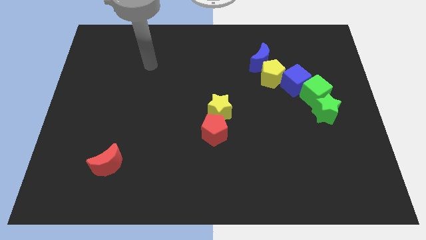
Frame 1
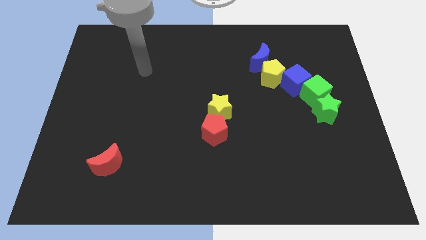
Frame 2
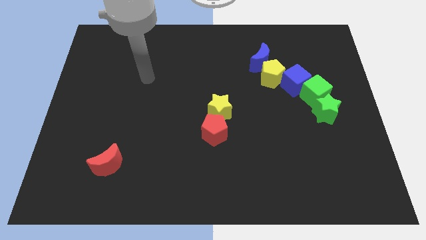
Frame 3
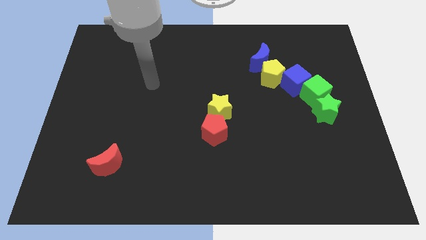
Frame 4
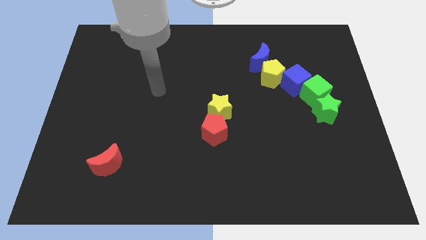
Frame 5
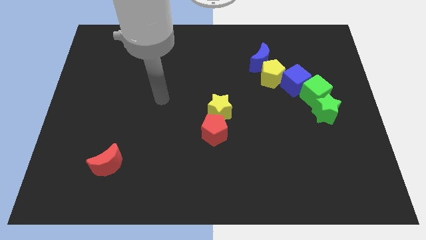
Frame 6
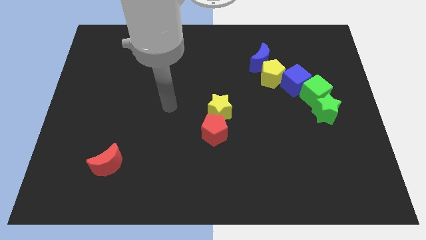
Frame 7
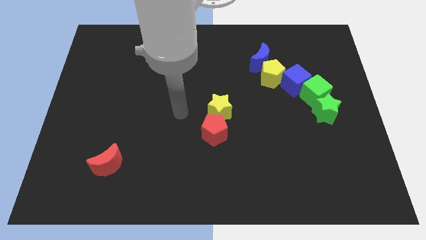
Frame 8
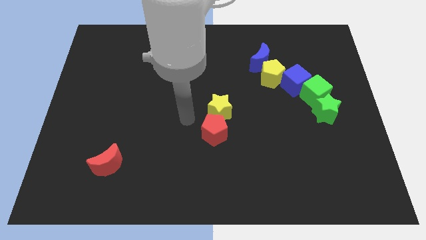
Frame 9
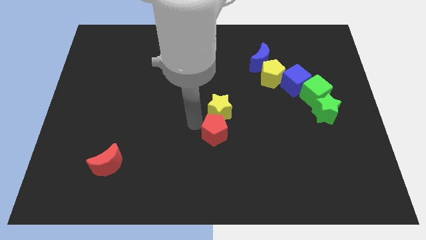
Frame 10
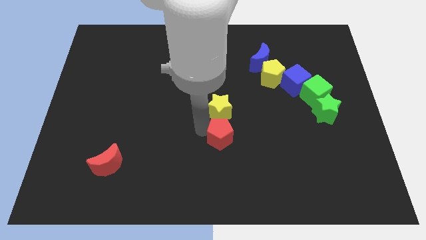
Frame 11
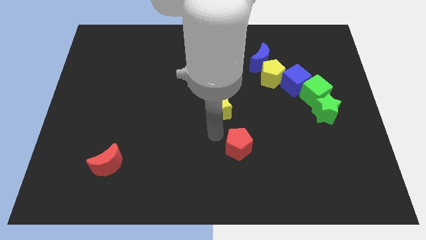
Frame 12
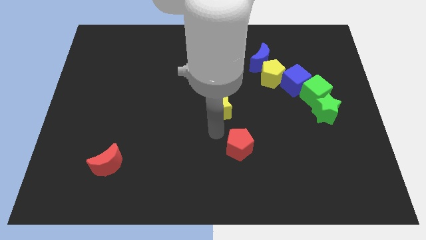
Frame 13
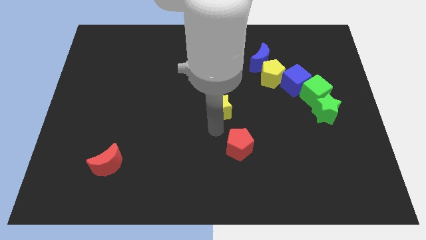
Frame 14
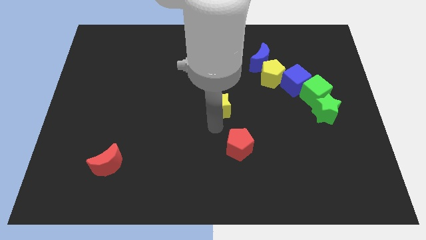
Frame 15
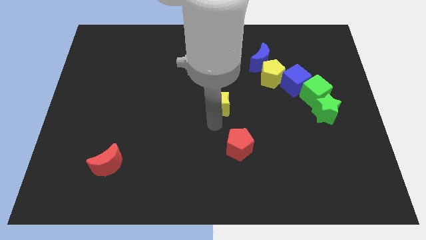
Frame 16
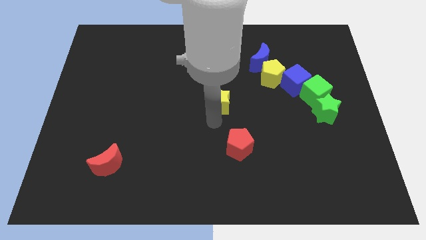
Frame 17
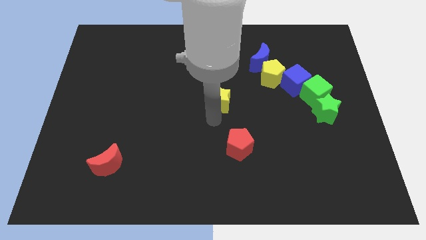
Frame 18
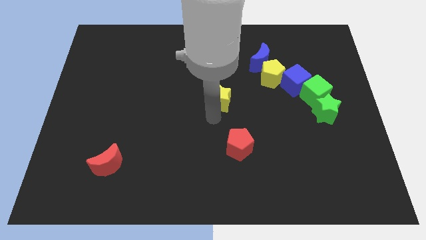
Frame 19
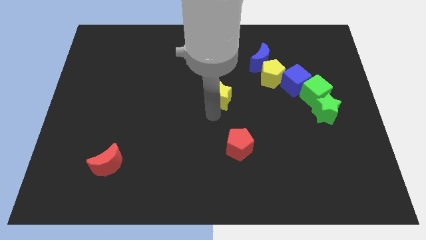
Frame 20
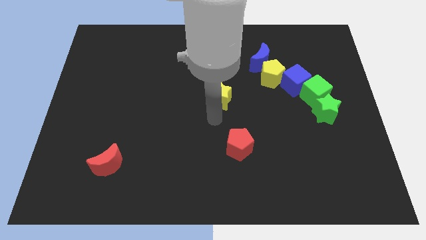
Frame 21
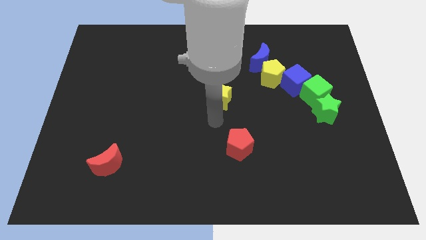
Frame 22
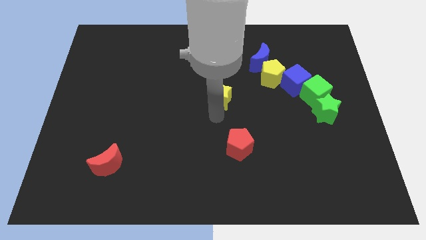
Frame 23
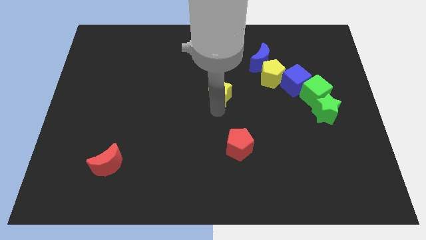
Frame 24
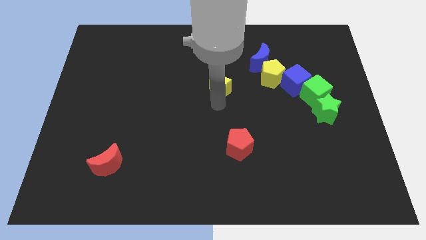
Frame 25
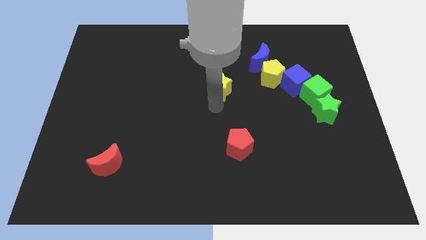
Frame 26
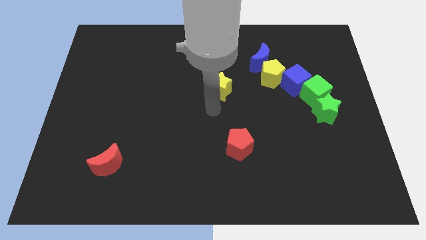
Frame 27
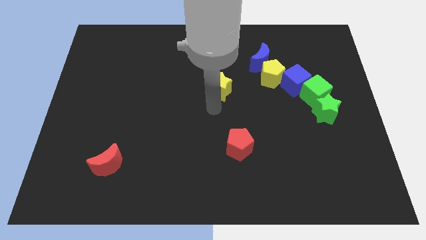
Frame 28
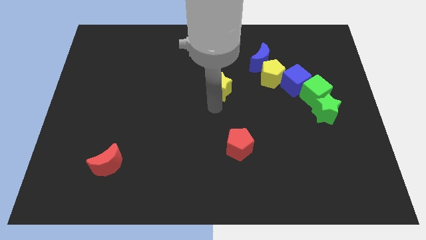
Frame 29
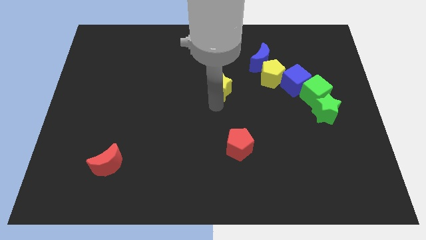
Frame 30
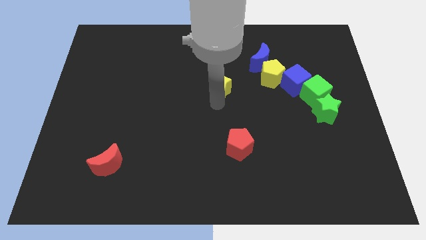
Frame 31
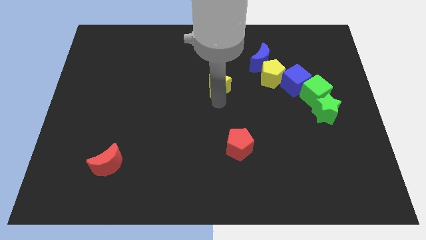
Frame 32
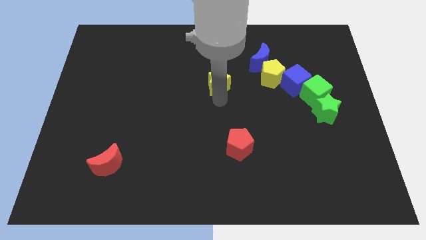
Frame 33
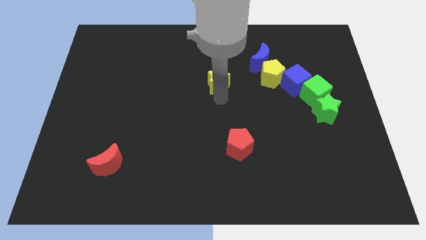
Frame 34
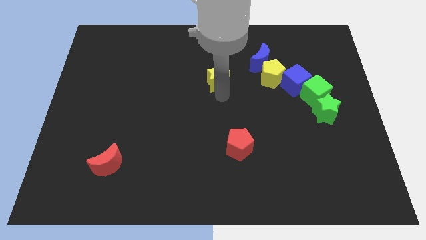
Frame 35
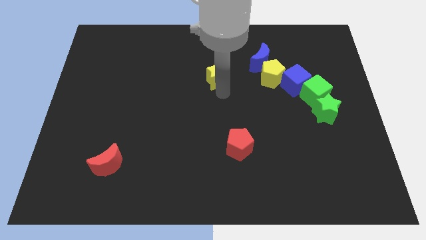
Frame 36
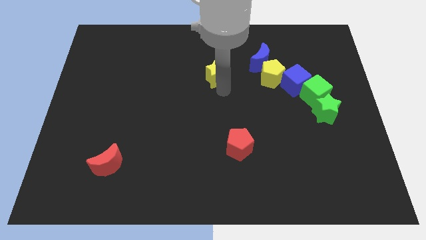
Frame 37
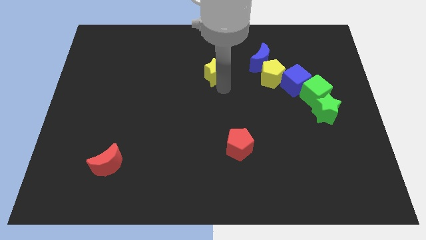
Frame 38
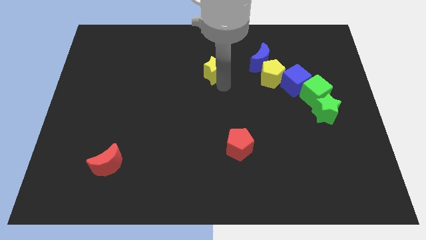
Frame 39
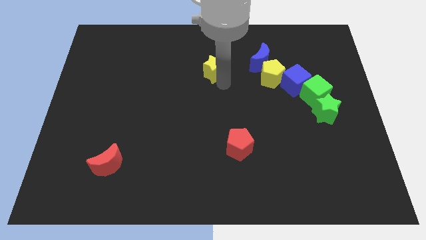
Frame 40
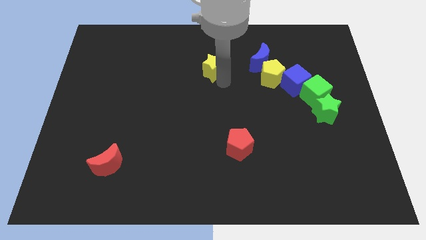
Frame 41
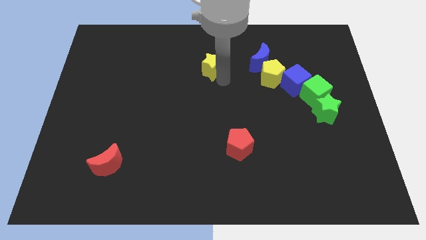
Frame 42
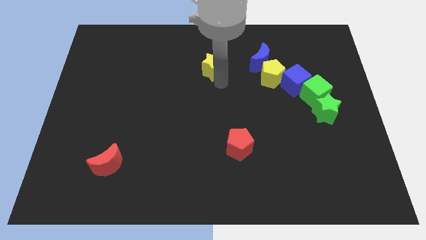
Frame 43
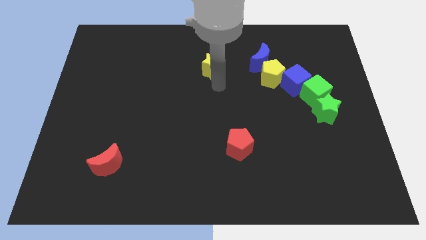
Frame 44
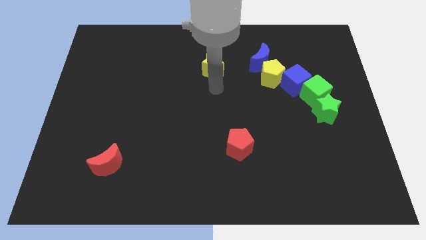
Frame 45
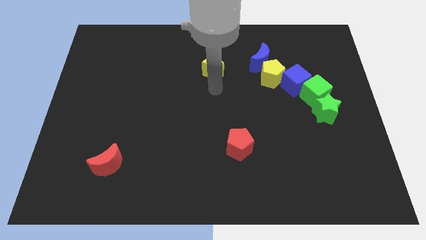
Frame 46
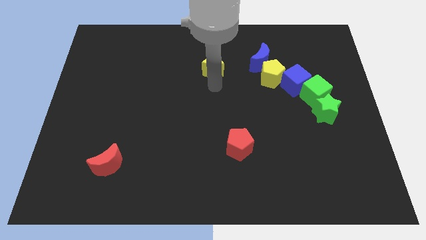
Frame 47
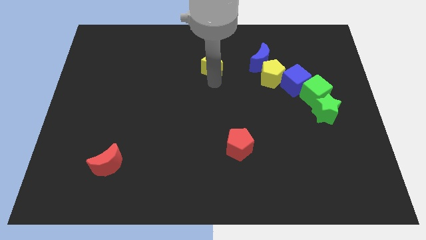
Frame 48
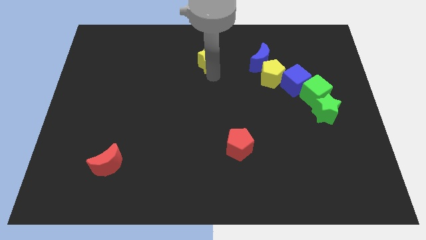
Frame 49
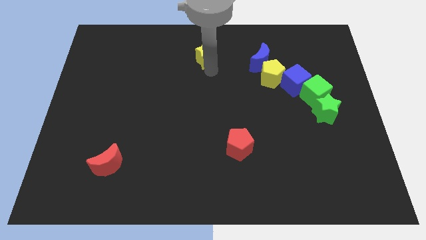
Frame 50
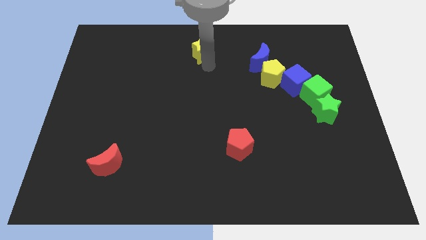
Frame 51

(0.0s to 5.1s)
push the yellow star to the top side

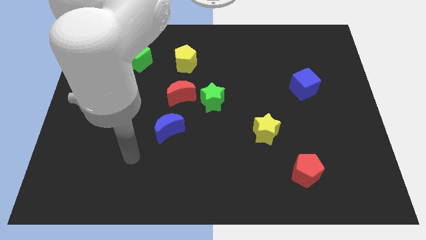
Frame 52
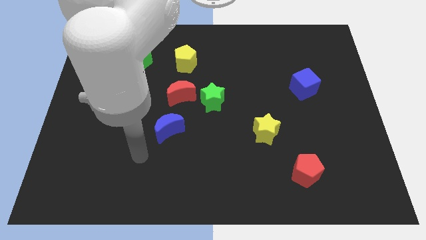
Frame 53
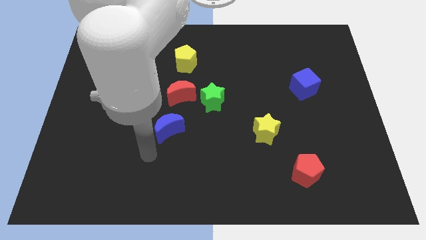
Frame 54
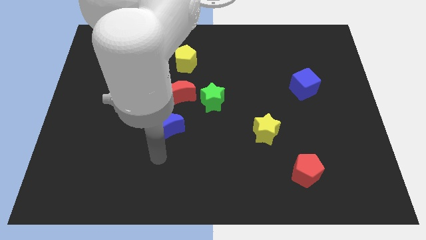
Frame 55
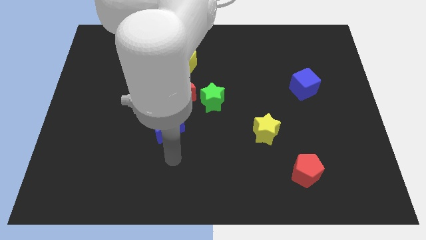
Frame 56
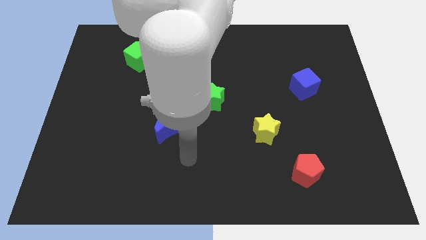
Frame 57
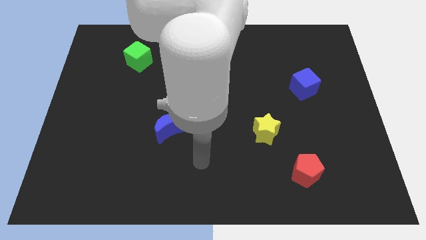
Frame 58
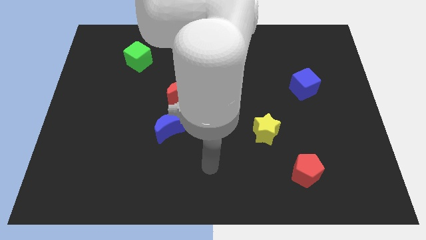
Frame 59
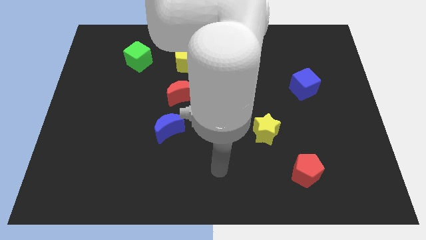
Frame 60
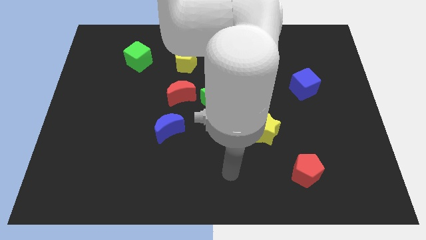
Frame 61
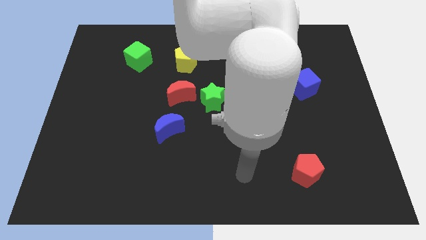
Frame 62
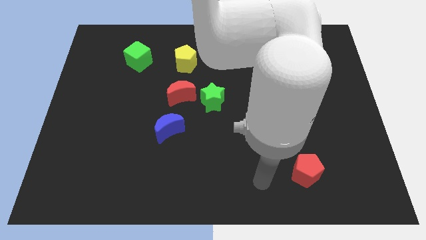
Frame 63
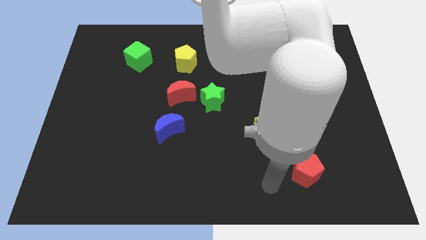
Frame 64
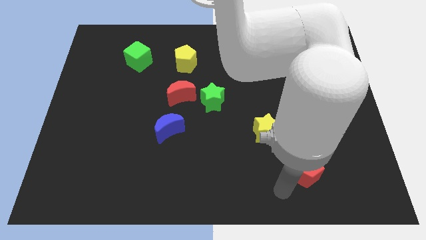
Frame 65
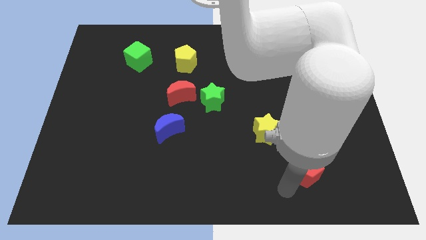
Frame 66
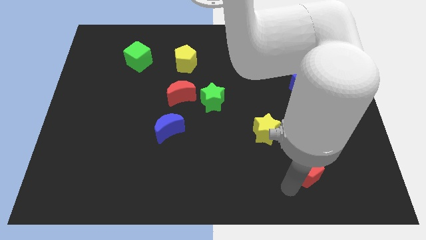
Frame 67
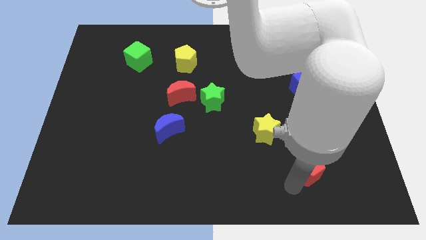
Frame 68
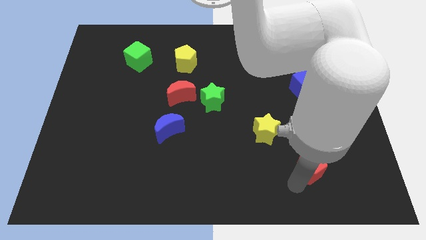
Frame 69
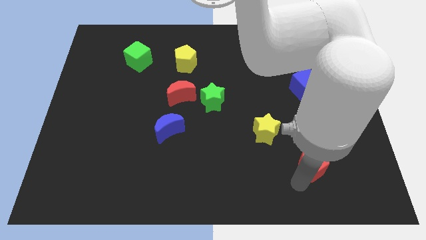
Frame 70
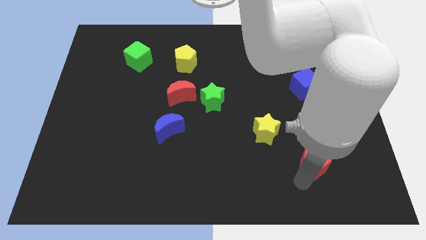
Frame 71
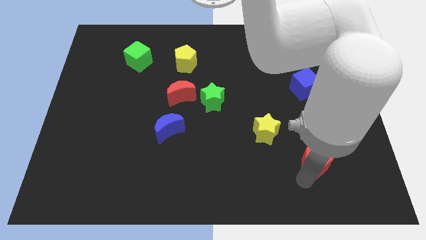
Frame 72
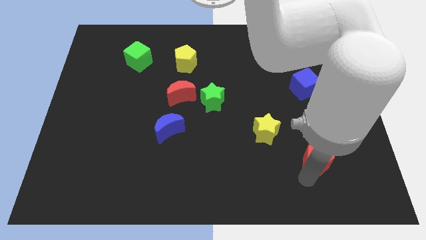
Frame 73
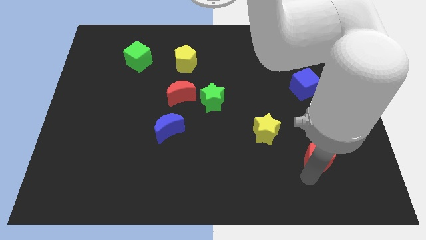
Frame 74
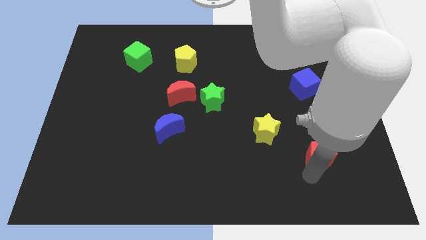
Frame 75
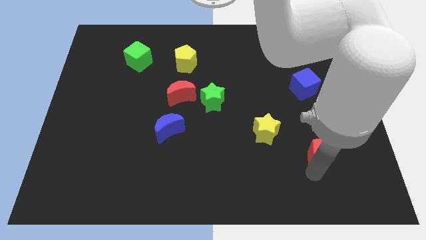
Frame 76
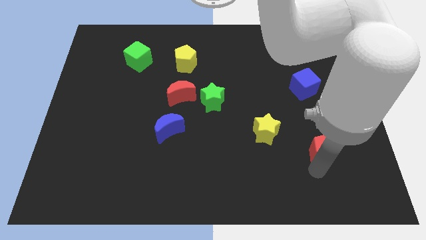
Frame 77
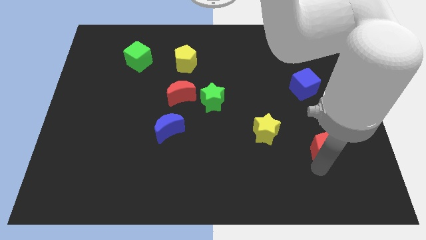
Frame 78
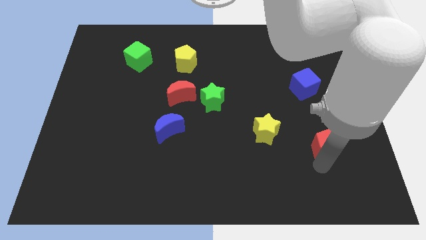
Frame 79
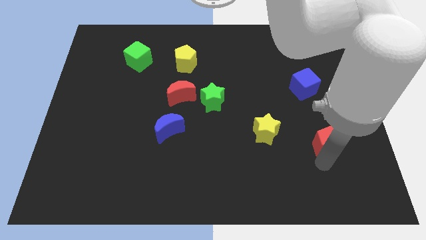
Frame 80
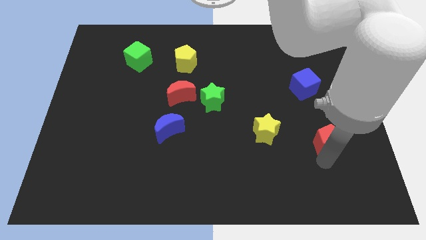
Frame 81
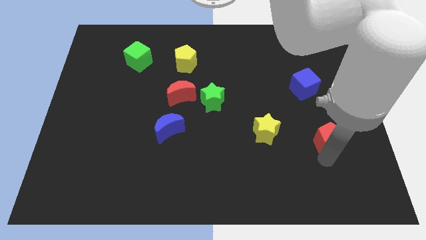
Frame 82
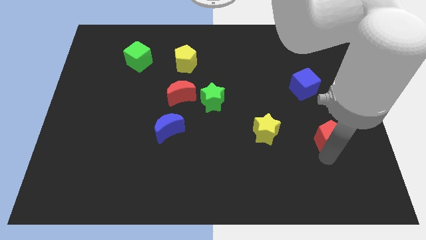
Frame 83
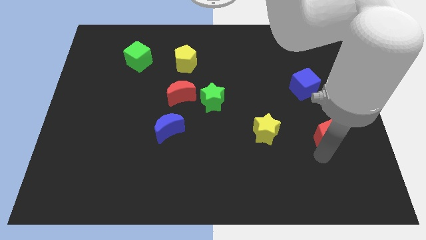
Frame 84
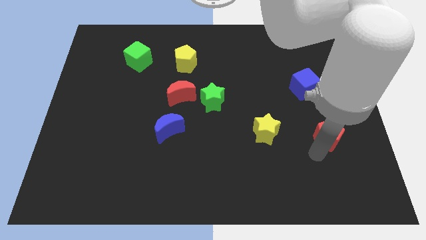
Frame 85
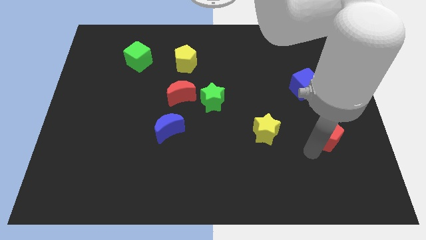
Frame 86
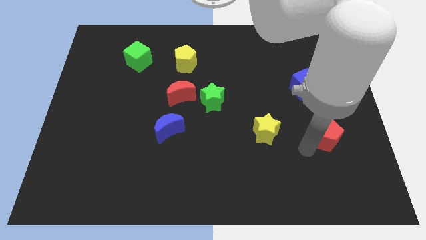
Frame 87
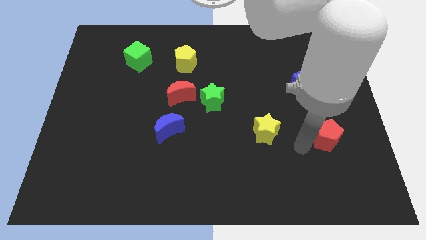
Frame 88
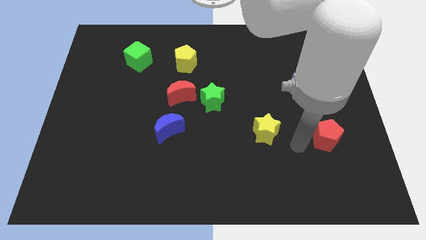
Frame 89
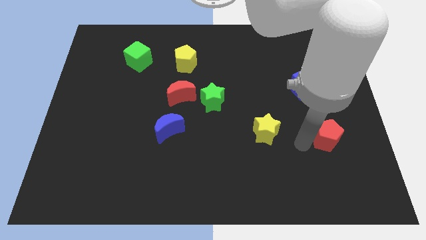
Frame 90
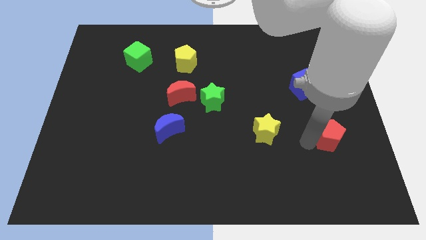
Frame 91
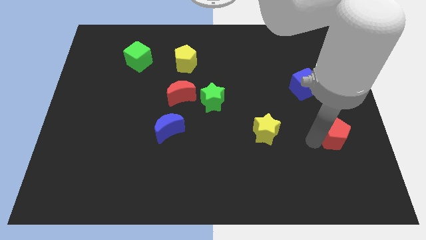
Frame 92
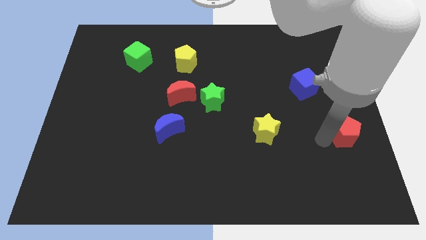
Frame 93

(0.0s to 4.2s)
move the red pentagon to the center right
